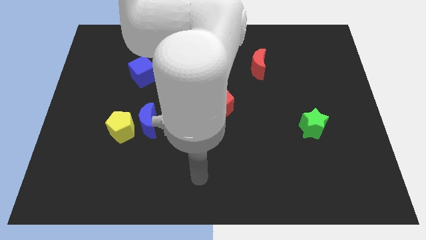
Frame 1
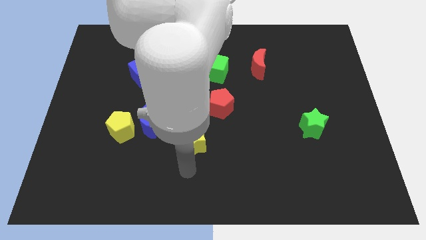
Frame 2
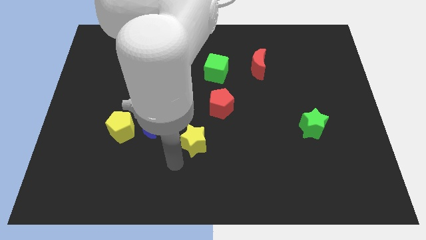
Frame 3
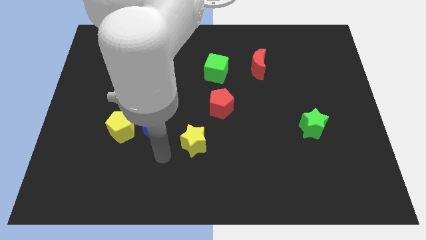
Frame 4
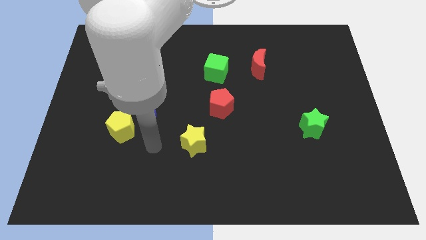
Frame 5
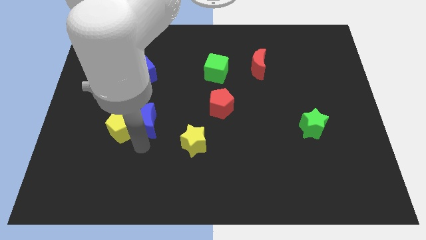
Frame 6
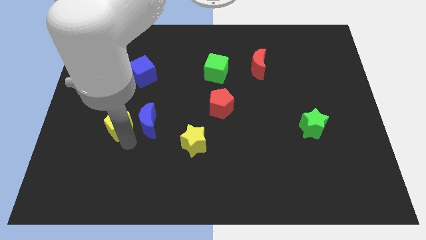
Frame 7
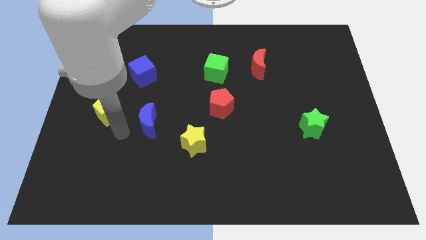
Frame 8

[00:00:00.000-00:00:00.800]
move the blue moon away from the yellow pentagon

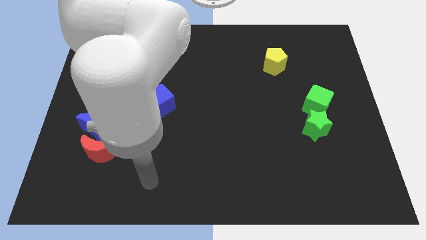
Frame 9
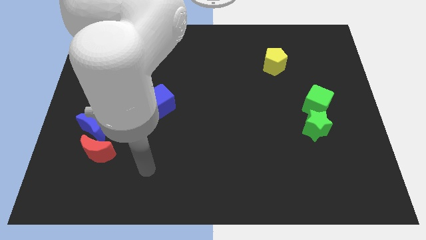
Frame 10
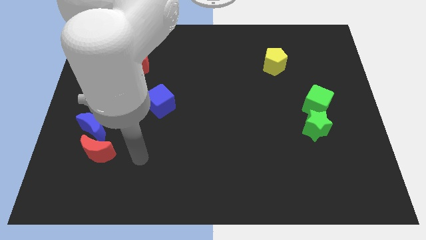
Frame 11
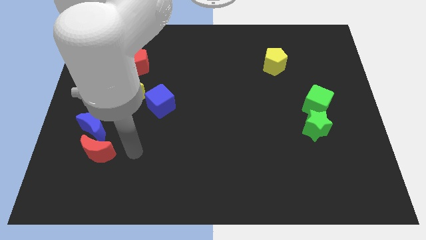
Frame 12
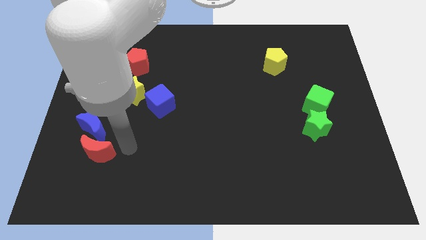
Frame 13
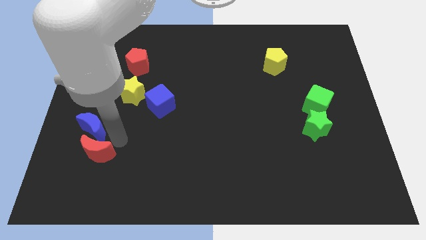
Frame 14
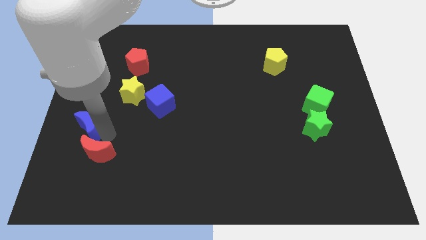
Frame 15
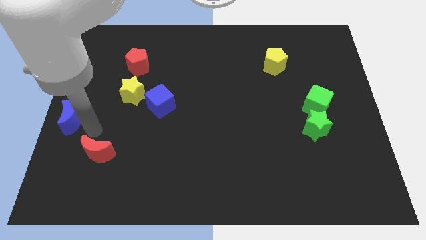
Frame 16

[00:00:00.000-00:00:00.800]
pull the red moon apart from the blue moon

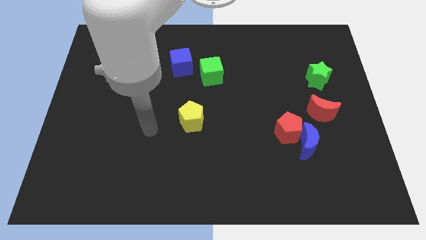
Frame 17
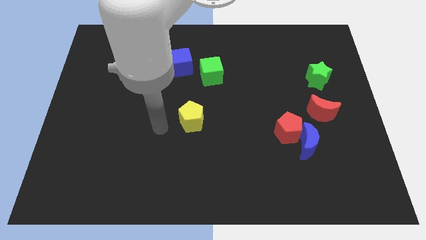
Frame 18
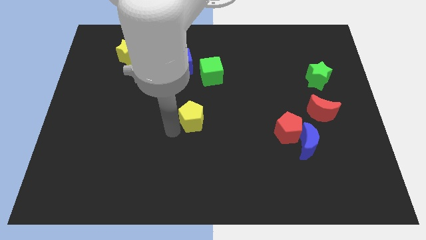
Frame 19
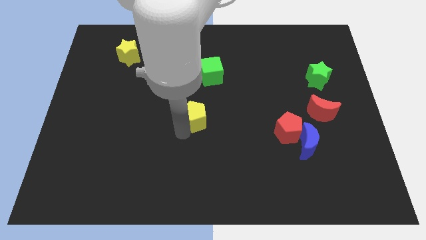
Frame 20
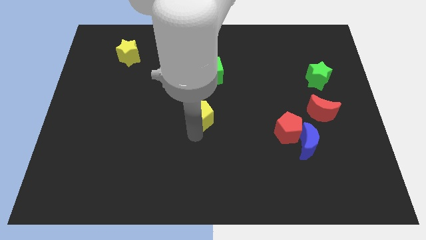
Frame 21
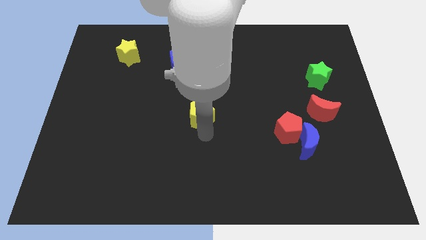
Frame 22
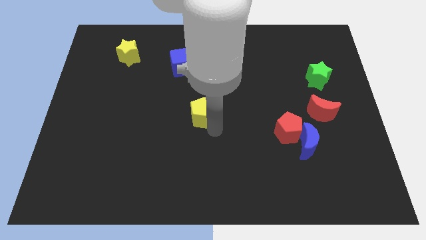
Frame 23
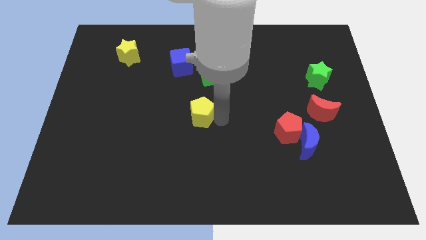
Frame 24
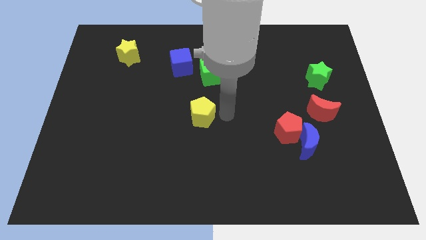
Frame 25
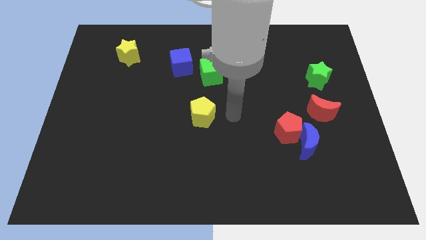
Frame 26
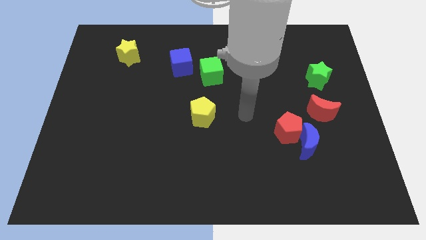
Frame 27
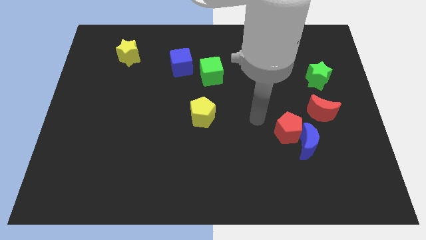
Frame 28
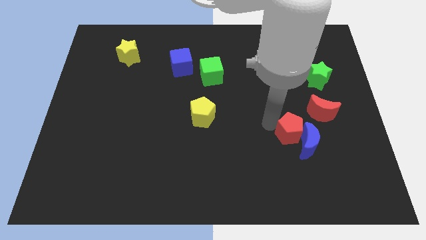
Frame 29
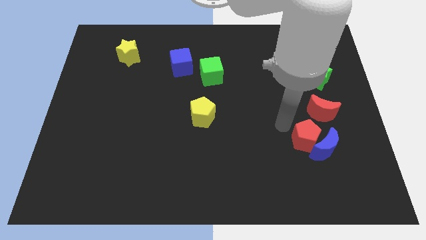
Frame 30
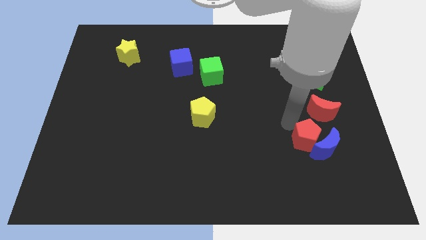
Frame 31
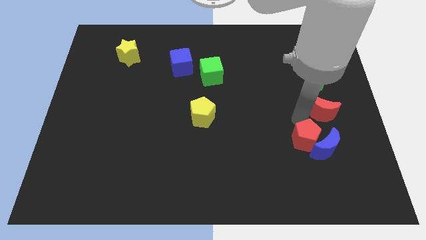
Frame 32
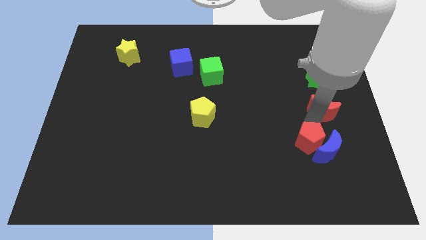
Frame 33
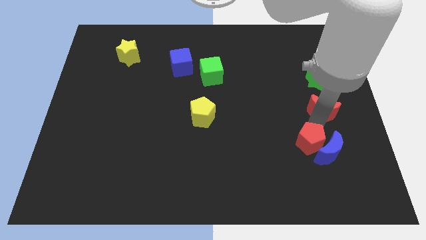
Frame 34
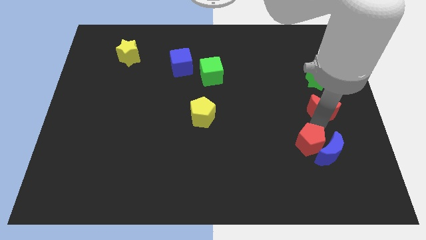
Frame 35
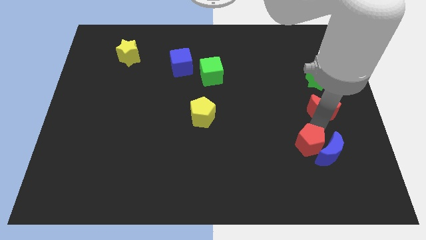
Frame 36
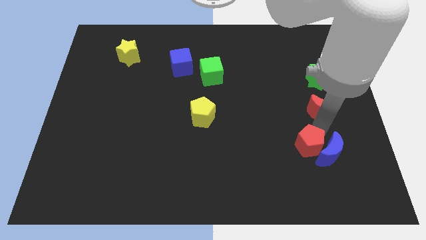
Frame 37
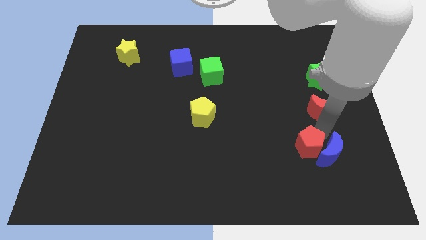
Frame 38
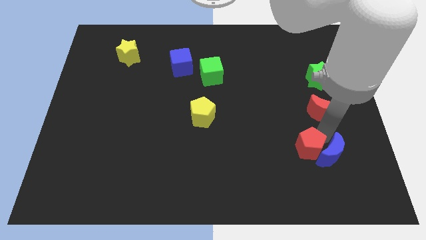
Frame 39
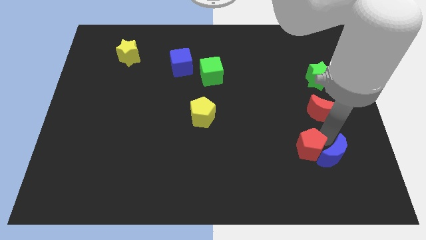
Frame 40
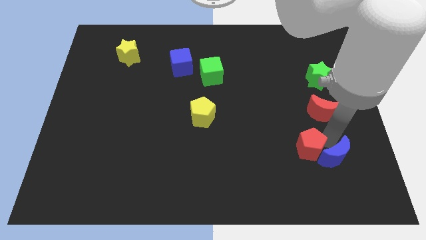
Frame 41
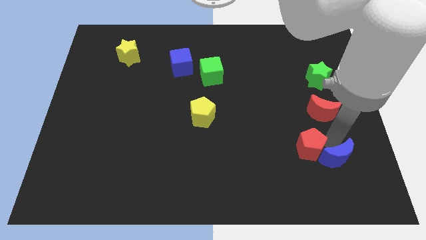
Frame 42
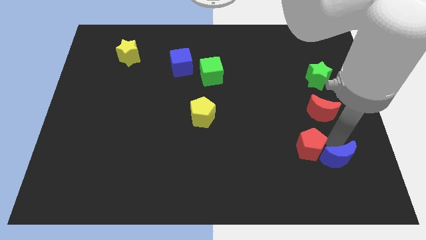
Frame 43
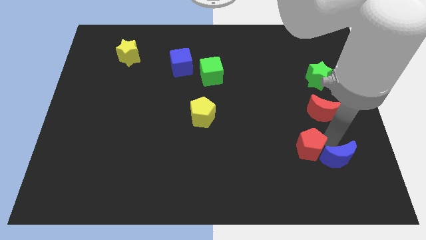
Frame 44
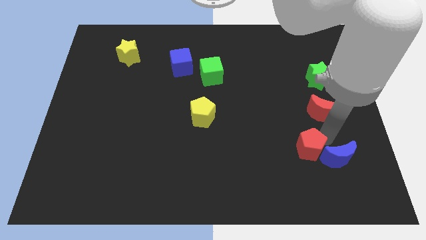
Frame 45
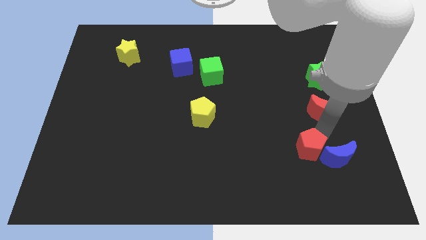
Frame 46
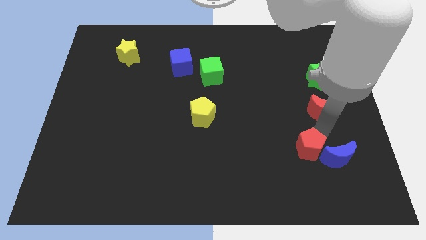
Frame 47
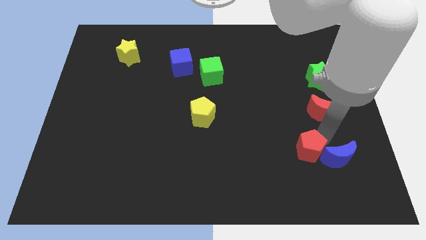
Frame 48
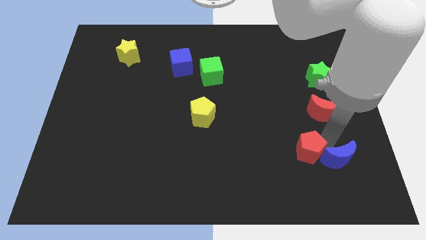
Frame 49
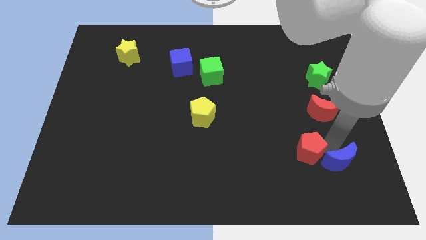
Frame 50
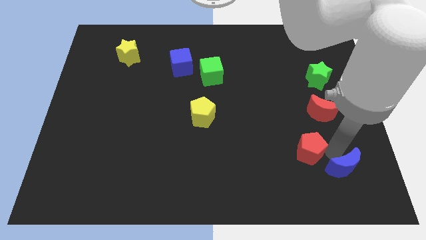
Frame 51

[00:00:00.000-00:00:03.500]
move the blue moon away from the red pentagon and red moon

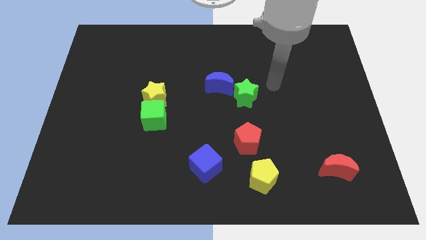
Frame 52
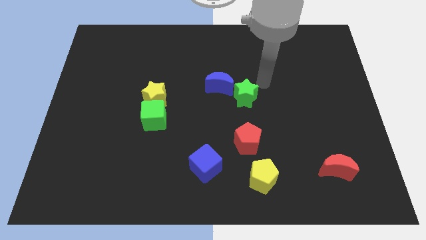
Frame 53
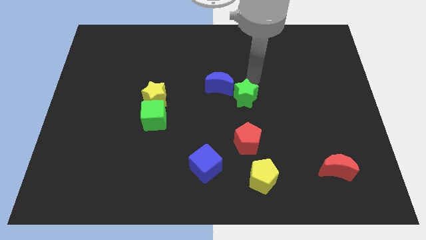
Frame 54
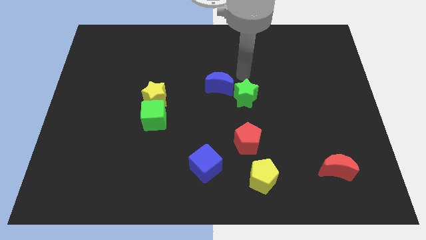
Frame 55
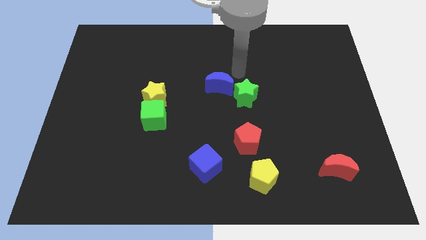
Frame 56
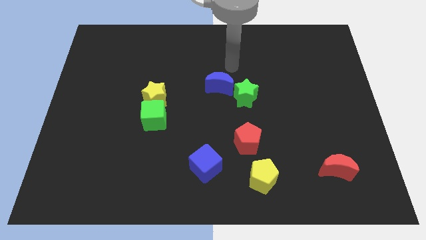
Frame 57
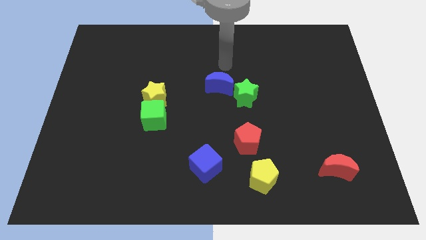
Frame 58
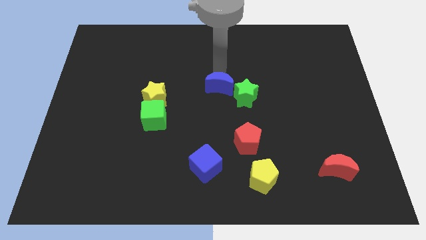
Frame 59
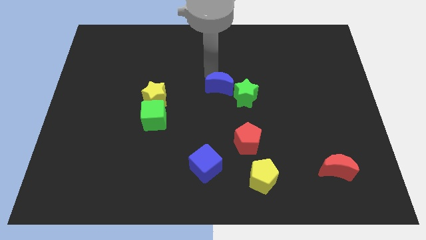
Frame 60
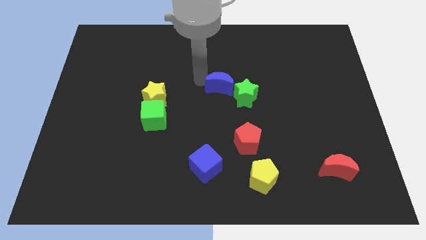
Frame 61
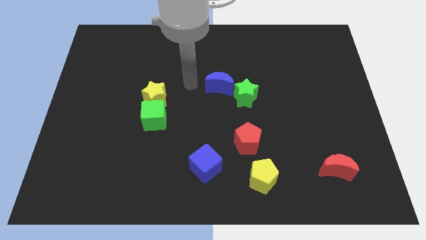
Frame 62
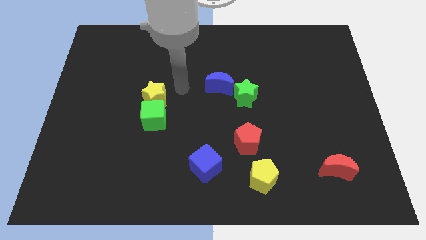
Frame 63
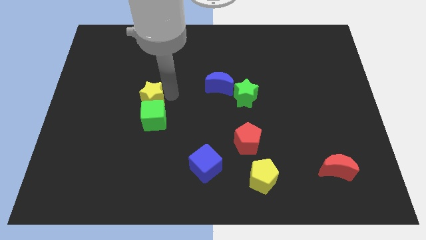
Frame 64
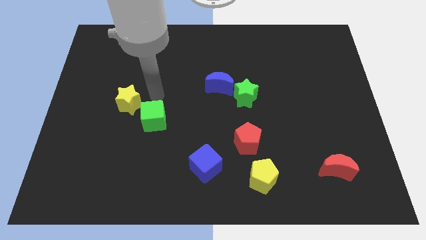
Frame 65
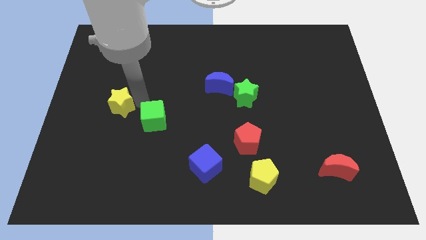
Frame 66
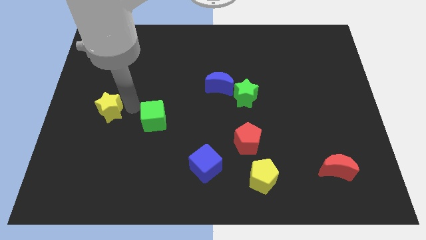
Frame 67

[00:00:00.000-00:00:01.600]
pull the green cube apart from the yellow star

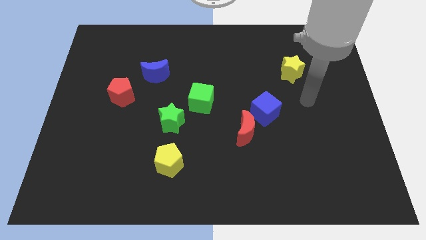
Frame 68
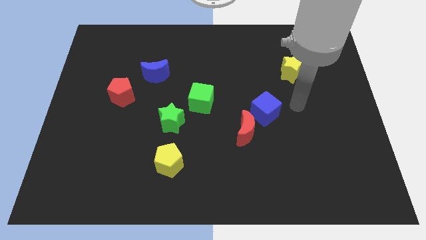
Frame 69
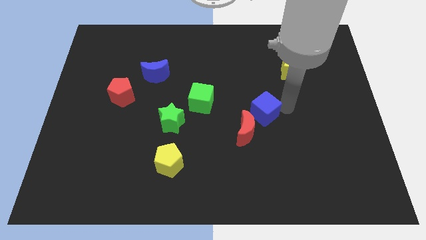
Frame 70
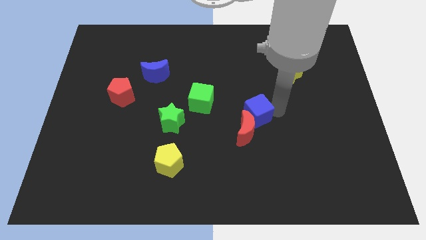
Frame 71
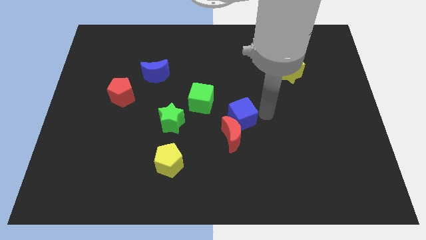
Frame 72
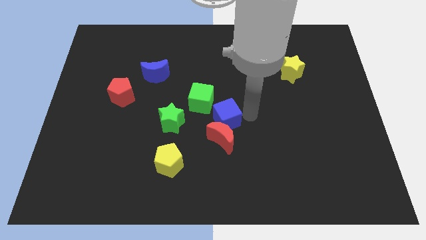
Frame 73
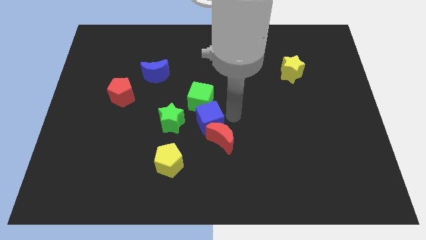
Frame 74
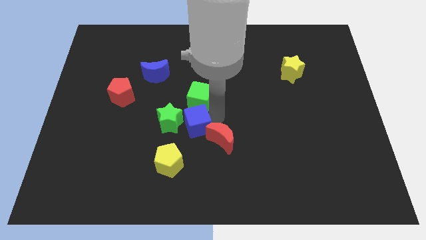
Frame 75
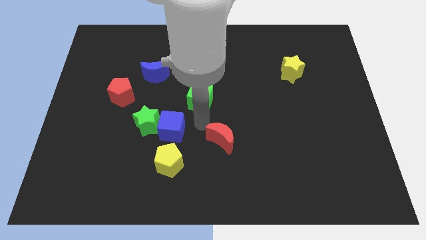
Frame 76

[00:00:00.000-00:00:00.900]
pull the red moon apart from the blue cube

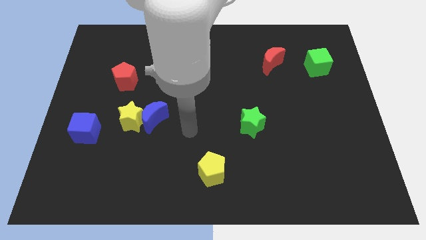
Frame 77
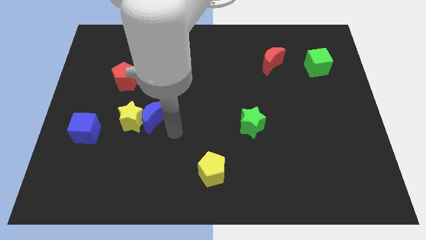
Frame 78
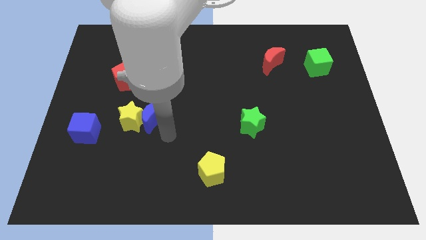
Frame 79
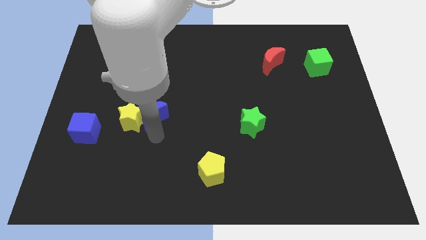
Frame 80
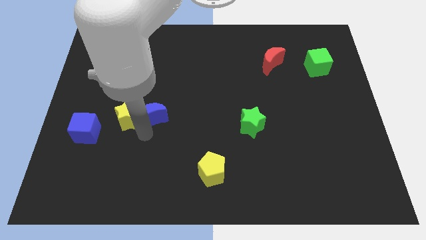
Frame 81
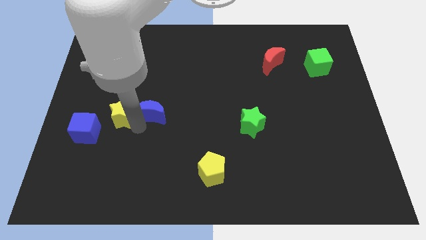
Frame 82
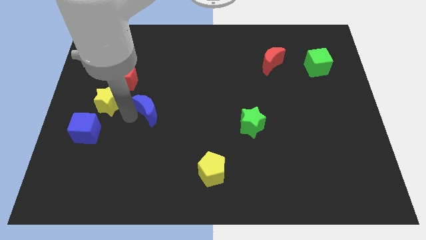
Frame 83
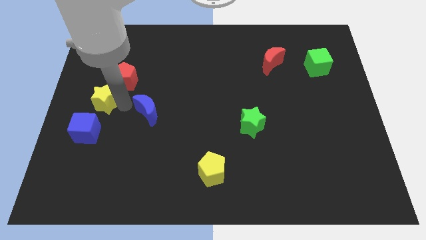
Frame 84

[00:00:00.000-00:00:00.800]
separate the blue moon from the yellow star

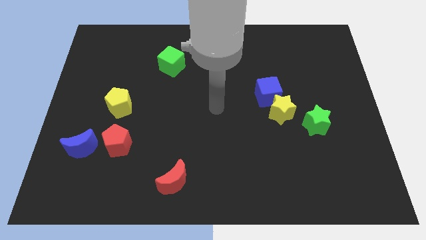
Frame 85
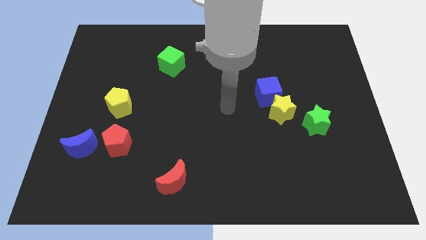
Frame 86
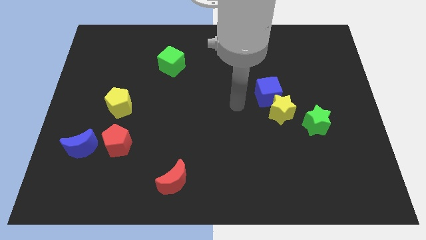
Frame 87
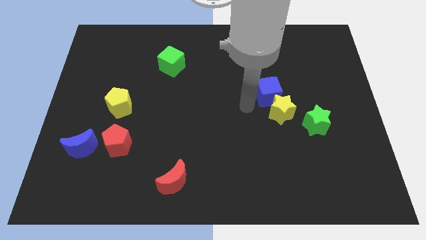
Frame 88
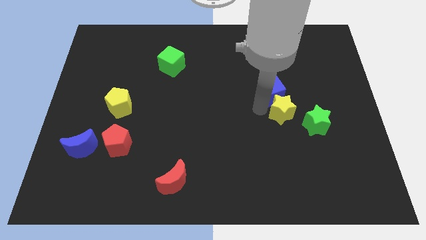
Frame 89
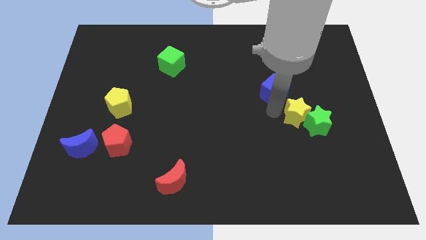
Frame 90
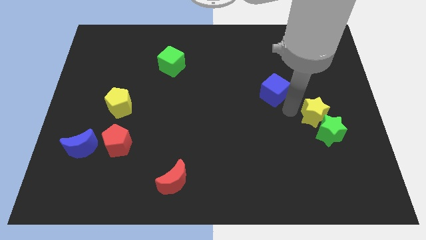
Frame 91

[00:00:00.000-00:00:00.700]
move the blue cube away from the yellow star
